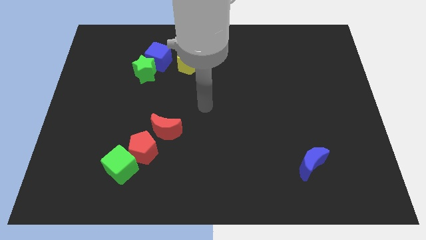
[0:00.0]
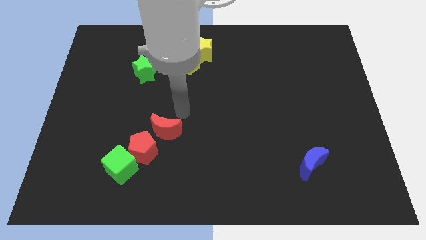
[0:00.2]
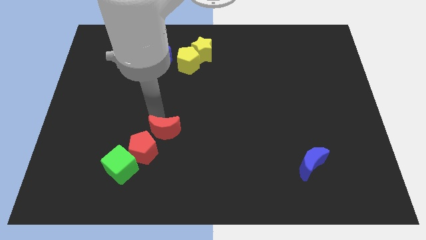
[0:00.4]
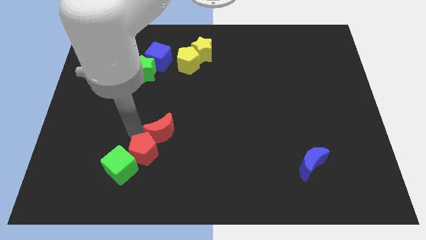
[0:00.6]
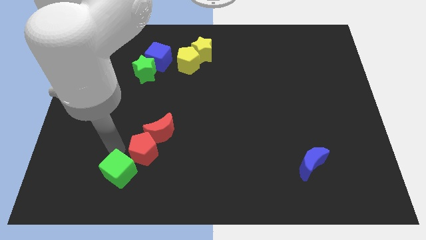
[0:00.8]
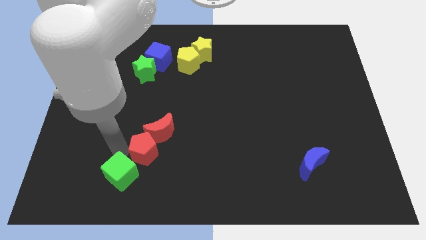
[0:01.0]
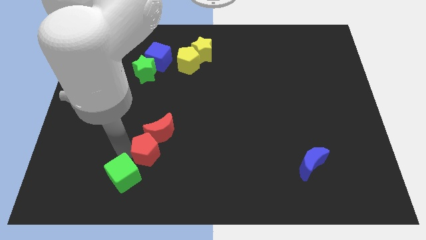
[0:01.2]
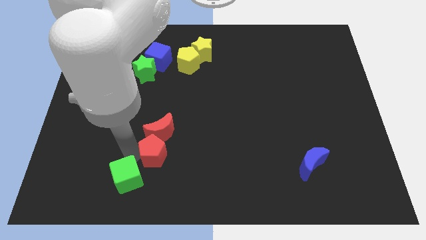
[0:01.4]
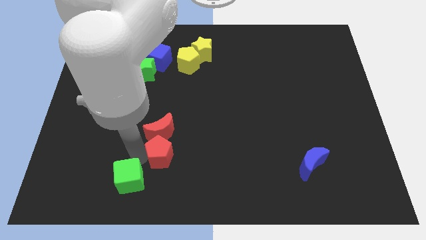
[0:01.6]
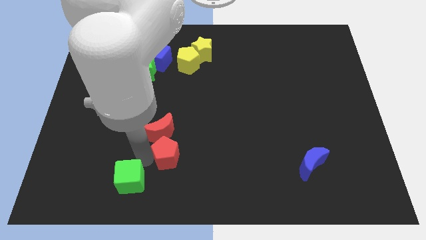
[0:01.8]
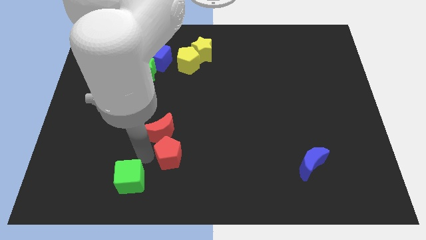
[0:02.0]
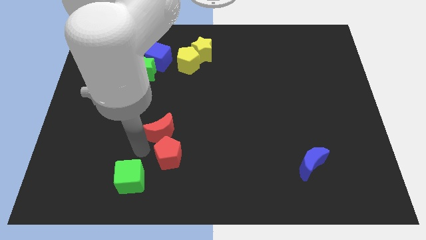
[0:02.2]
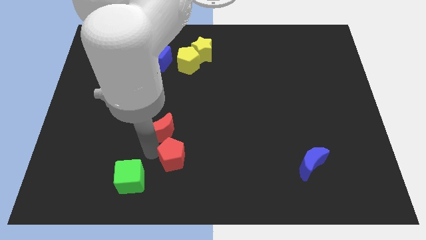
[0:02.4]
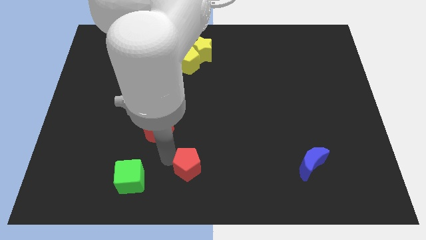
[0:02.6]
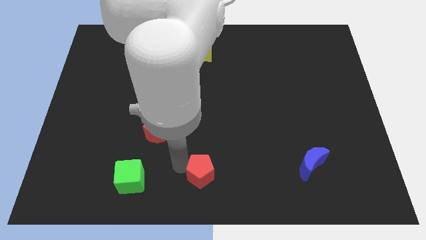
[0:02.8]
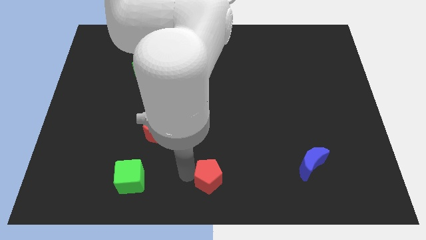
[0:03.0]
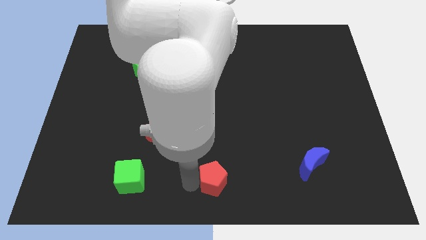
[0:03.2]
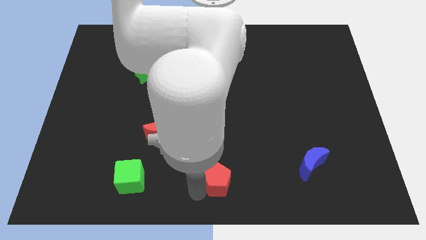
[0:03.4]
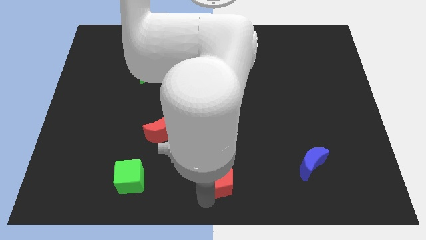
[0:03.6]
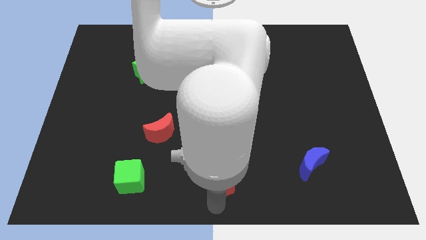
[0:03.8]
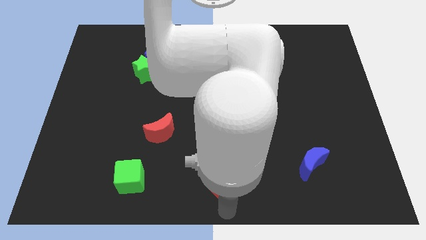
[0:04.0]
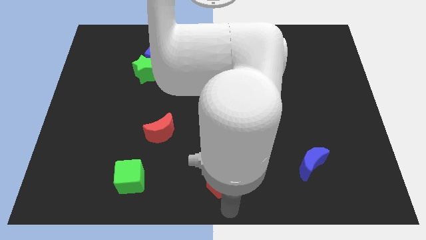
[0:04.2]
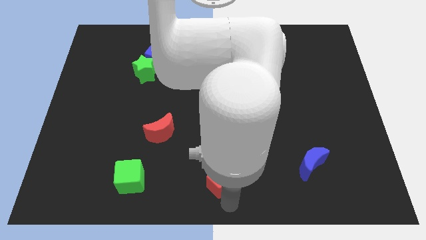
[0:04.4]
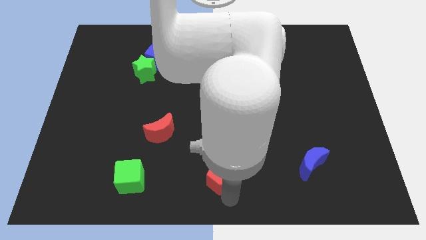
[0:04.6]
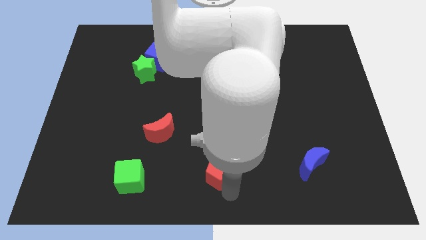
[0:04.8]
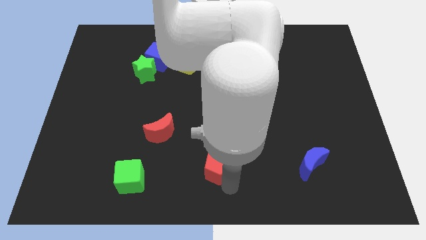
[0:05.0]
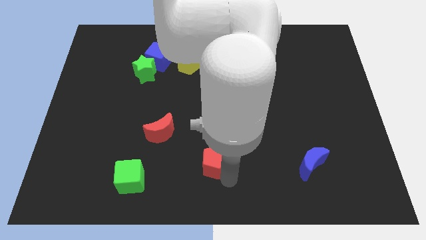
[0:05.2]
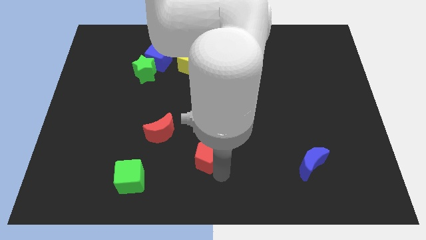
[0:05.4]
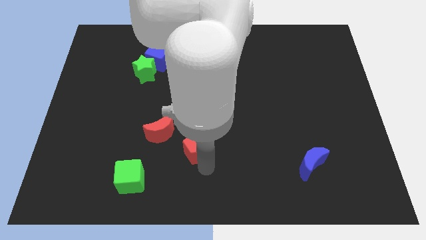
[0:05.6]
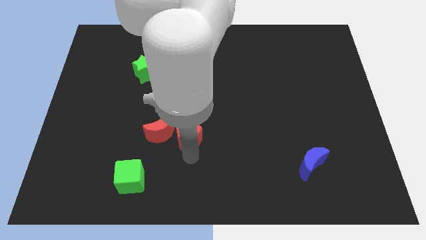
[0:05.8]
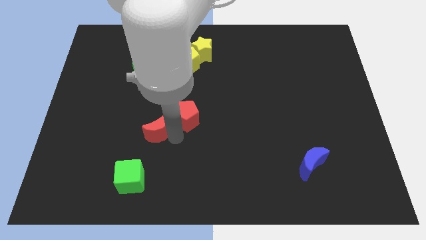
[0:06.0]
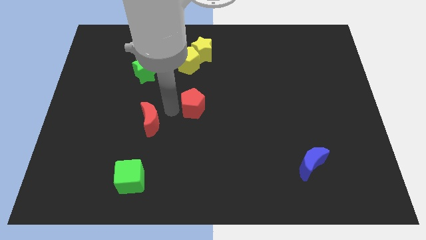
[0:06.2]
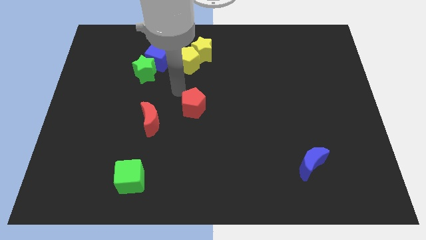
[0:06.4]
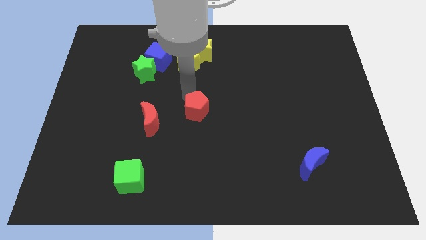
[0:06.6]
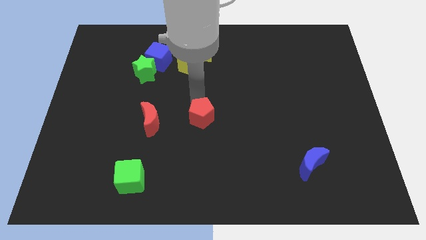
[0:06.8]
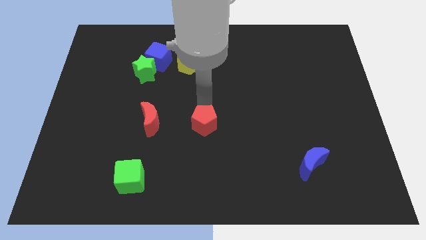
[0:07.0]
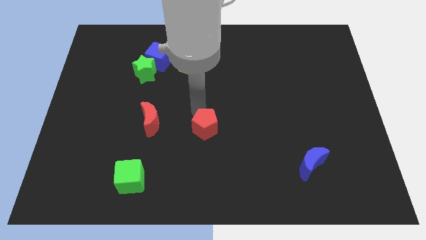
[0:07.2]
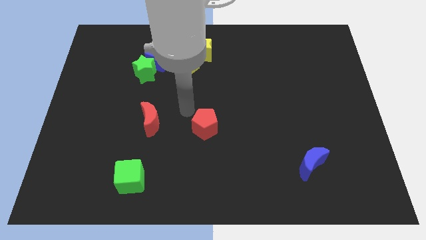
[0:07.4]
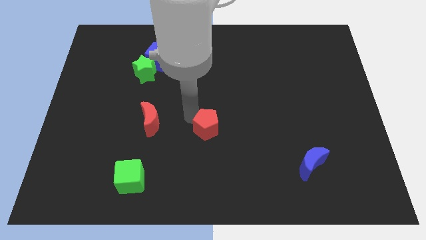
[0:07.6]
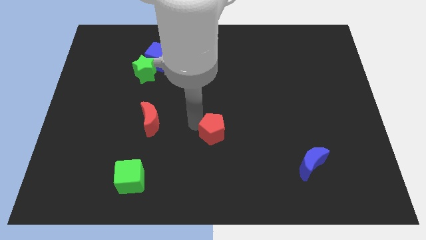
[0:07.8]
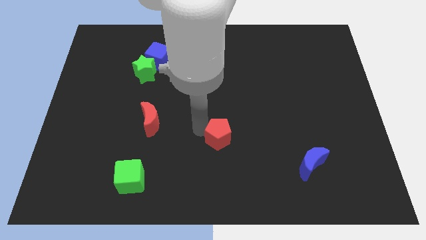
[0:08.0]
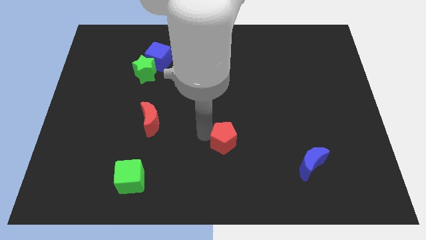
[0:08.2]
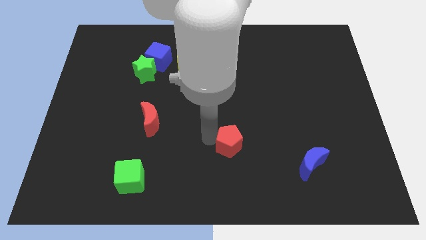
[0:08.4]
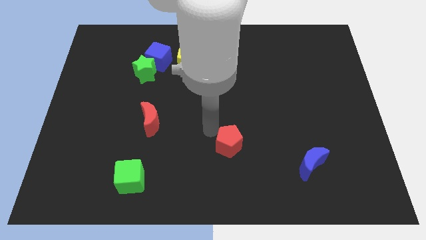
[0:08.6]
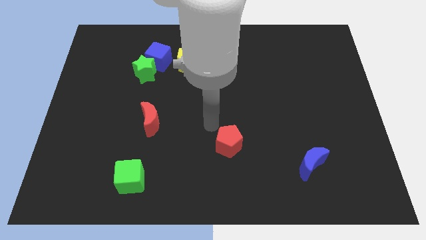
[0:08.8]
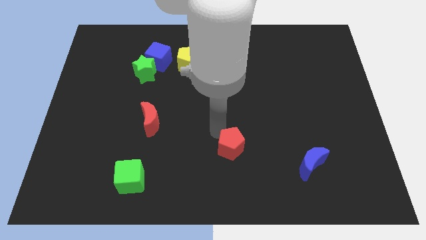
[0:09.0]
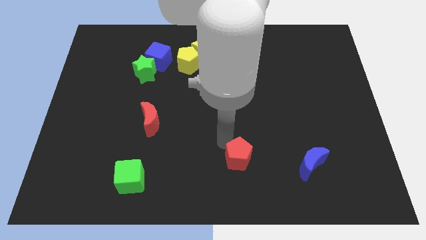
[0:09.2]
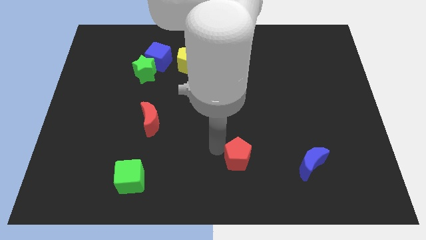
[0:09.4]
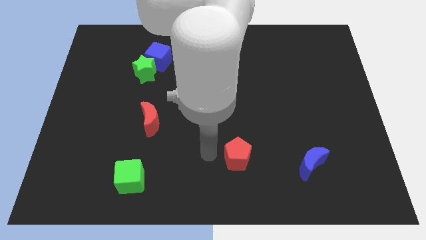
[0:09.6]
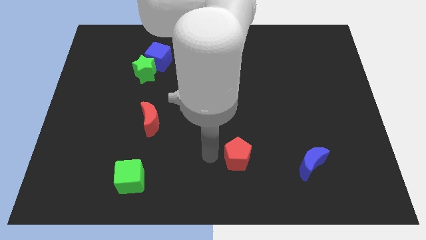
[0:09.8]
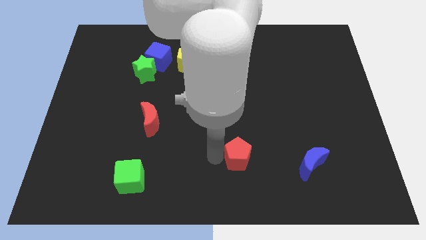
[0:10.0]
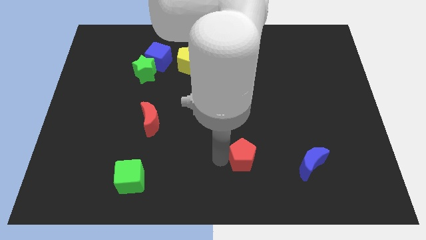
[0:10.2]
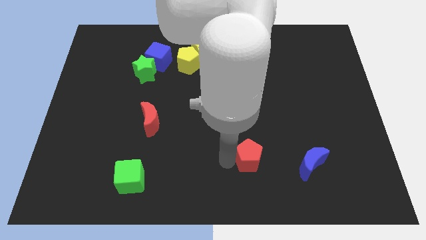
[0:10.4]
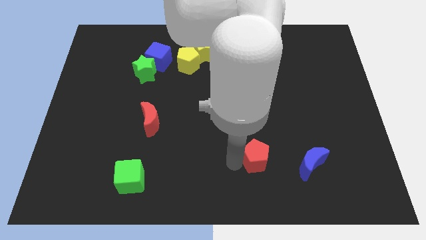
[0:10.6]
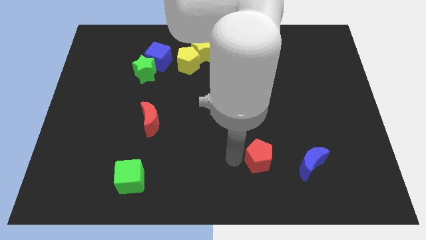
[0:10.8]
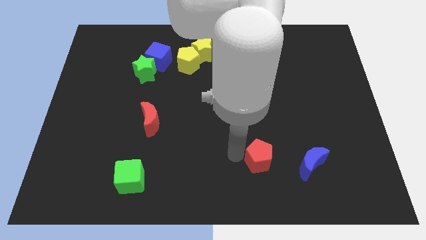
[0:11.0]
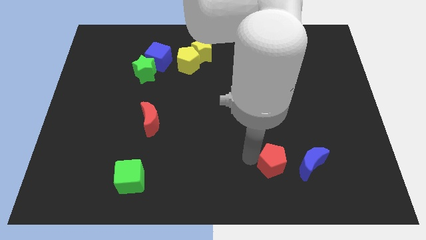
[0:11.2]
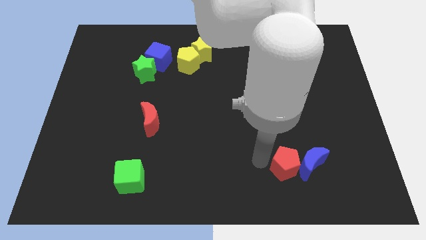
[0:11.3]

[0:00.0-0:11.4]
slide the red pentagon towards the blue moon
